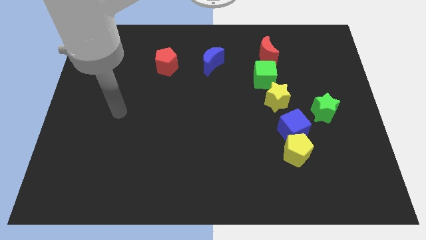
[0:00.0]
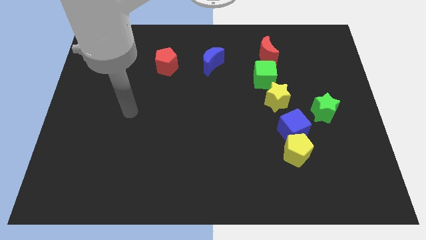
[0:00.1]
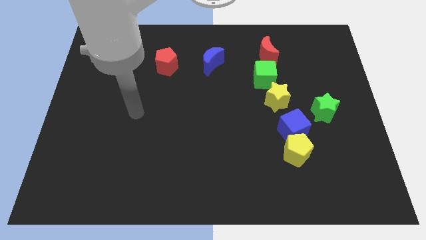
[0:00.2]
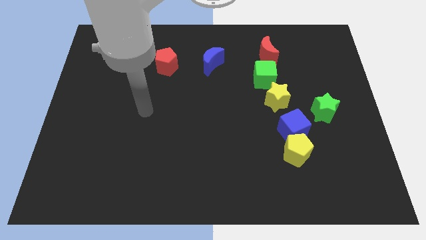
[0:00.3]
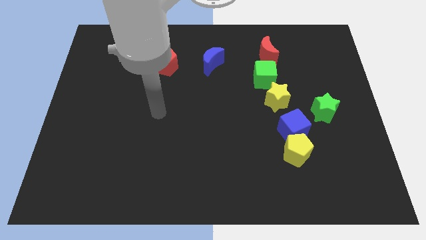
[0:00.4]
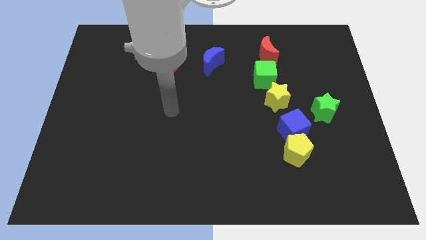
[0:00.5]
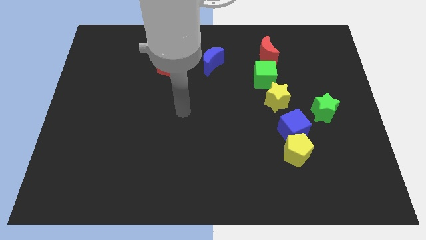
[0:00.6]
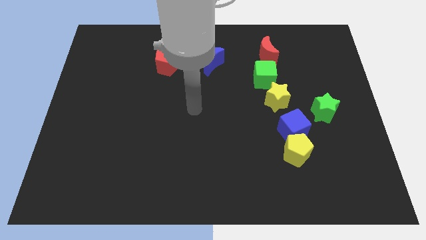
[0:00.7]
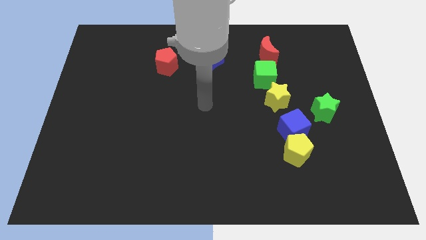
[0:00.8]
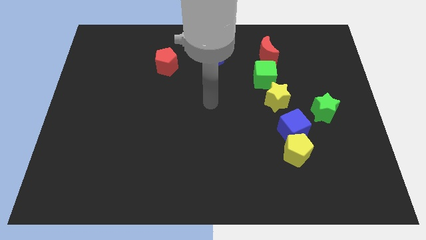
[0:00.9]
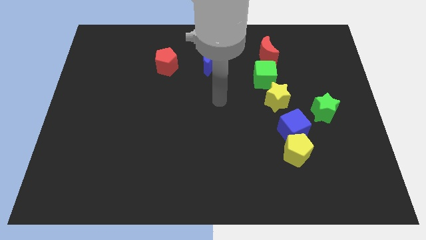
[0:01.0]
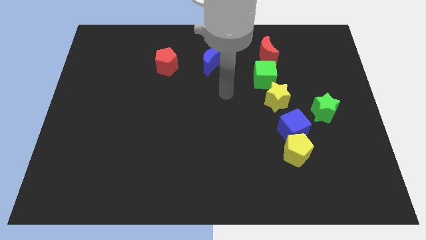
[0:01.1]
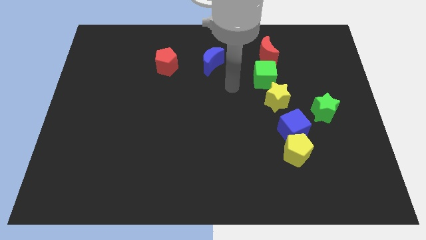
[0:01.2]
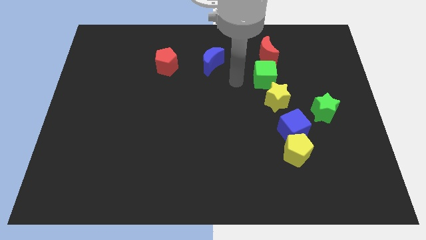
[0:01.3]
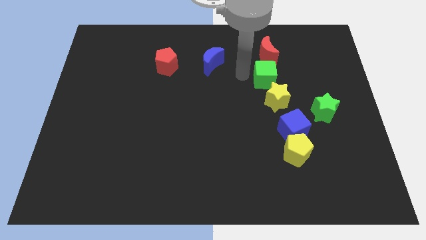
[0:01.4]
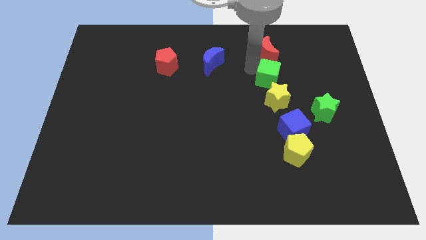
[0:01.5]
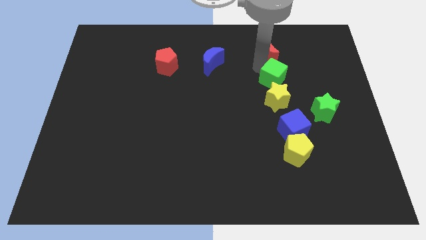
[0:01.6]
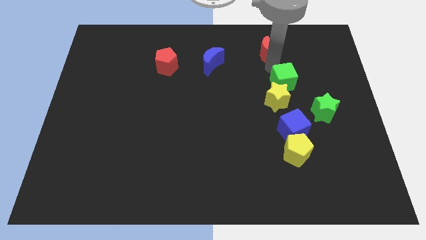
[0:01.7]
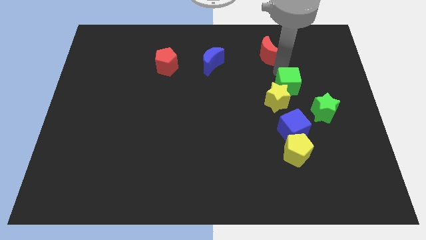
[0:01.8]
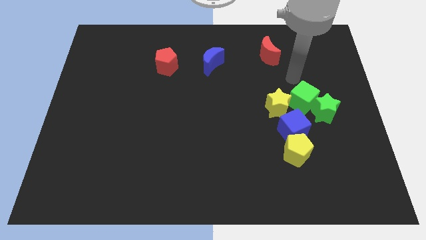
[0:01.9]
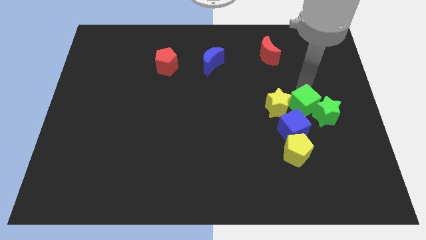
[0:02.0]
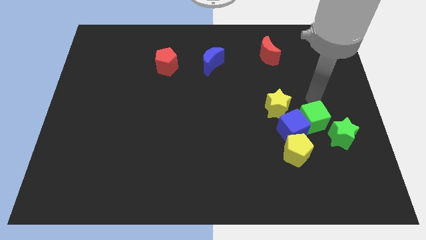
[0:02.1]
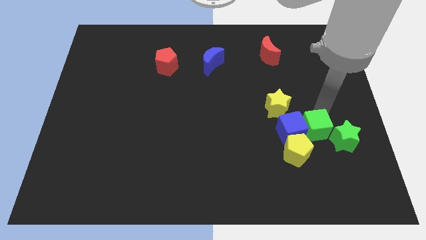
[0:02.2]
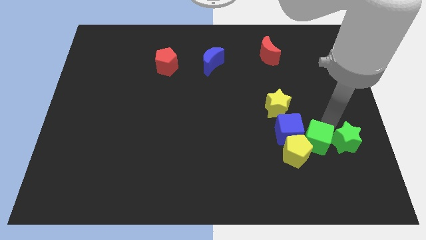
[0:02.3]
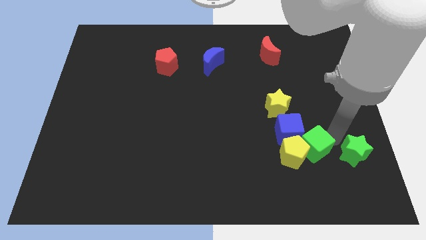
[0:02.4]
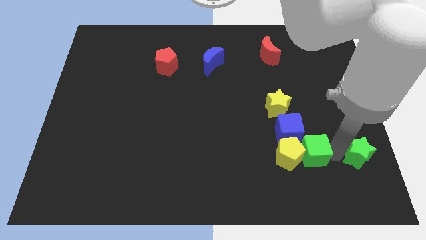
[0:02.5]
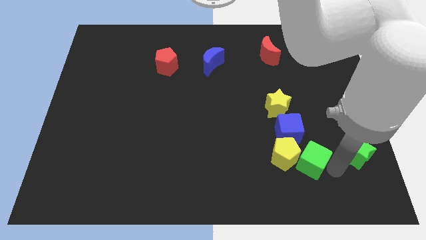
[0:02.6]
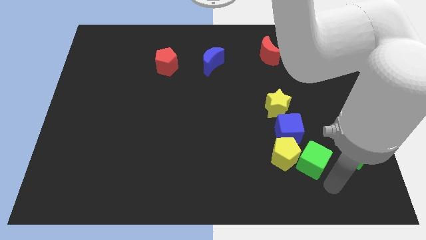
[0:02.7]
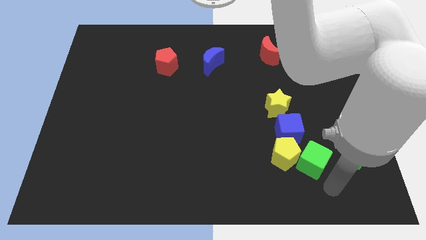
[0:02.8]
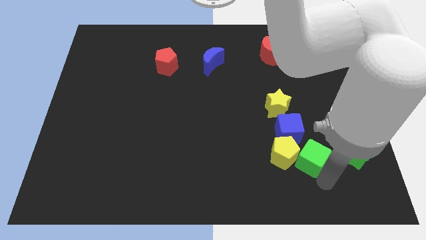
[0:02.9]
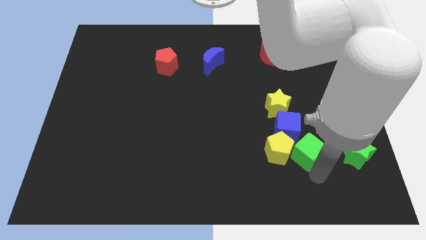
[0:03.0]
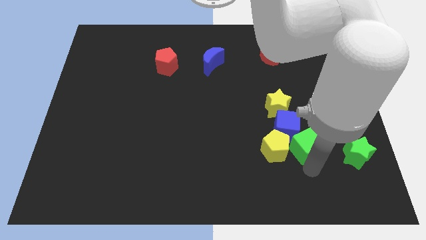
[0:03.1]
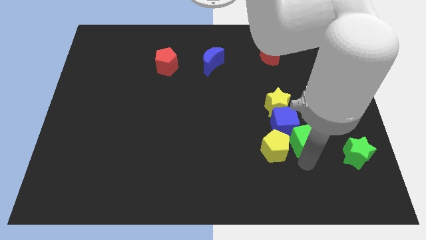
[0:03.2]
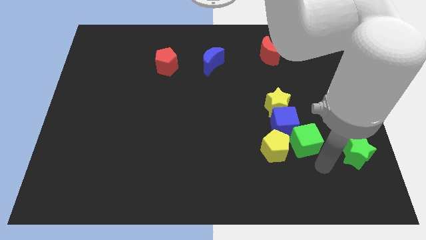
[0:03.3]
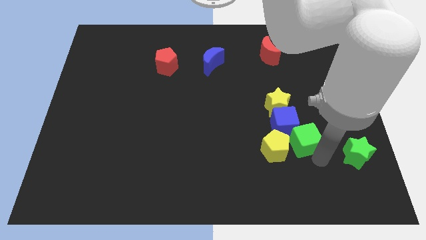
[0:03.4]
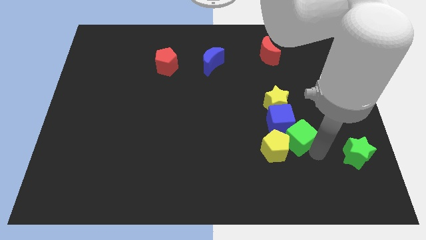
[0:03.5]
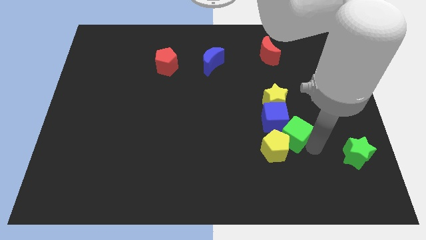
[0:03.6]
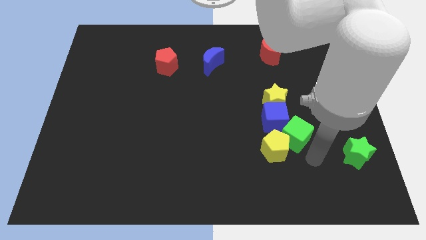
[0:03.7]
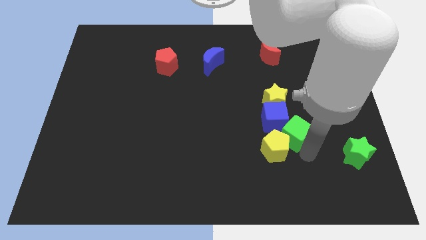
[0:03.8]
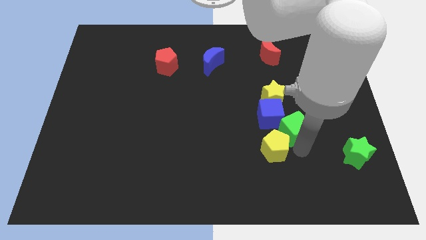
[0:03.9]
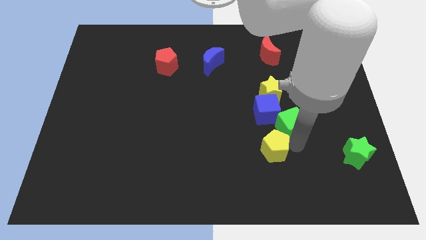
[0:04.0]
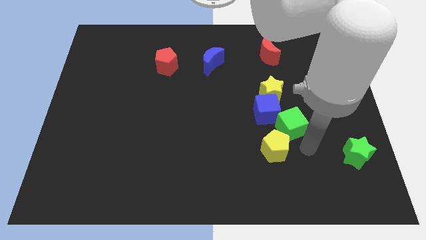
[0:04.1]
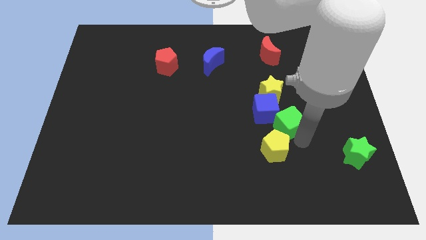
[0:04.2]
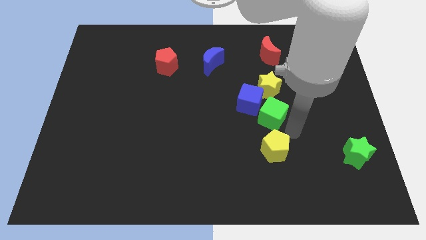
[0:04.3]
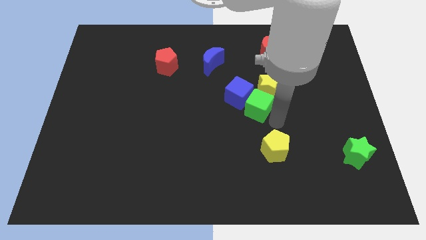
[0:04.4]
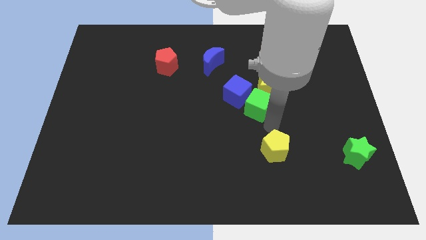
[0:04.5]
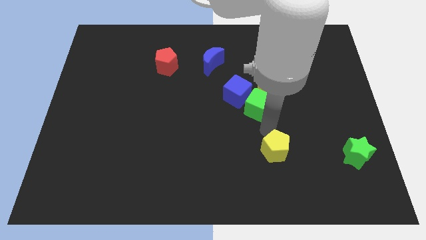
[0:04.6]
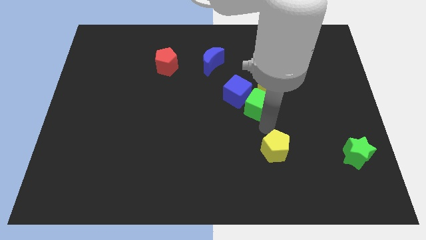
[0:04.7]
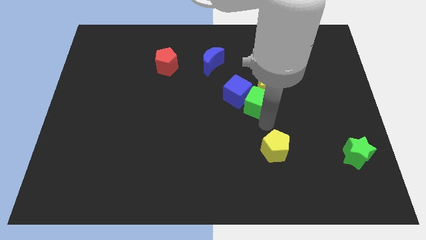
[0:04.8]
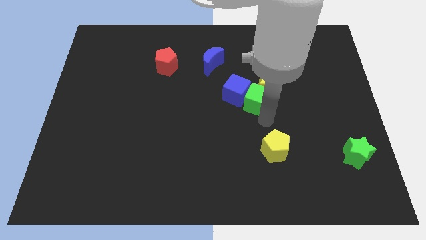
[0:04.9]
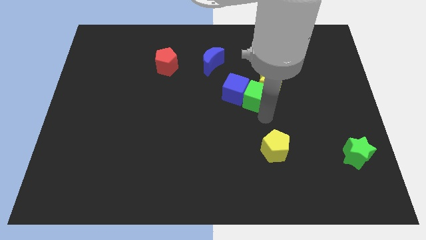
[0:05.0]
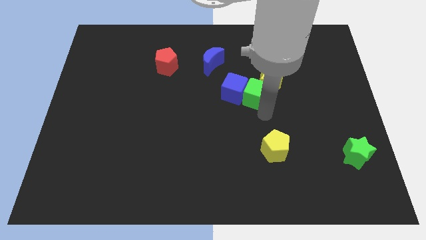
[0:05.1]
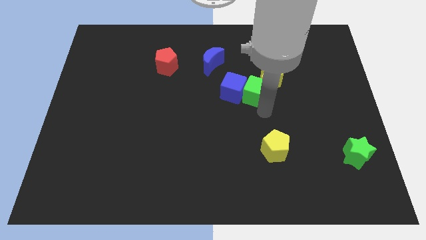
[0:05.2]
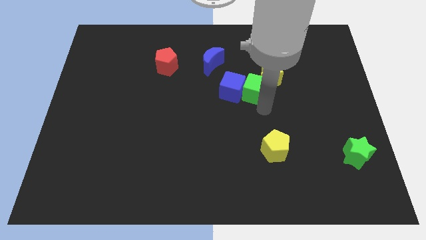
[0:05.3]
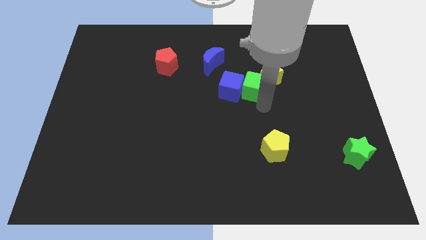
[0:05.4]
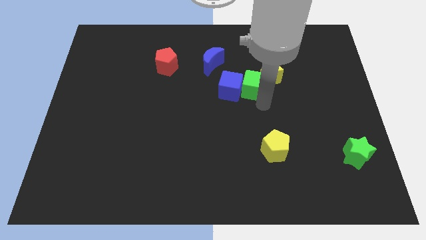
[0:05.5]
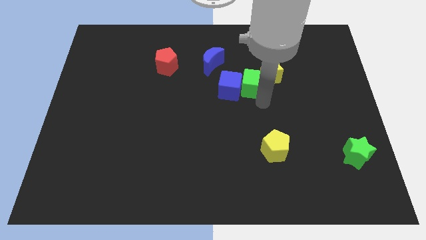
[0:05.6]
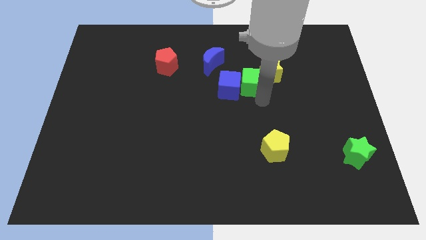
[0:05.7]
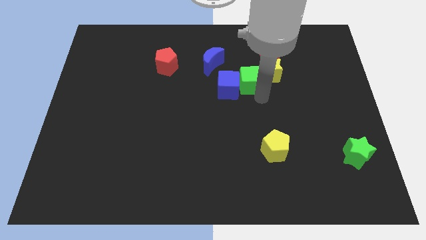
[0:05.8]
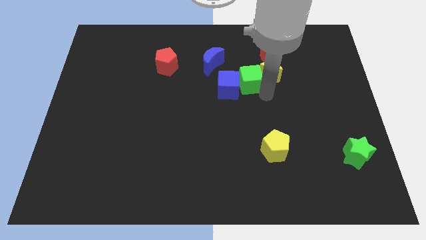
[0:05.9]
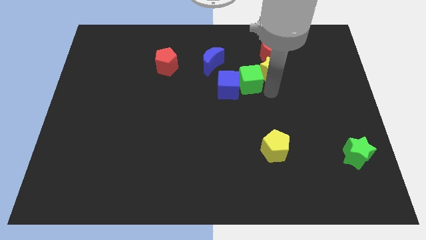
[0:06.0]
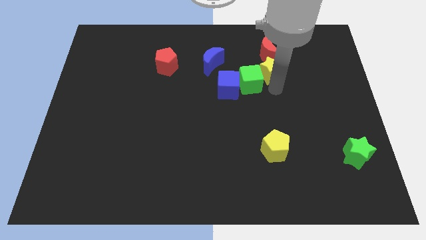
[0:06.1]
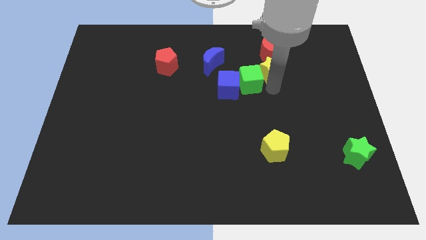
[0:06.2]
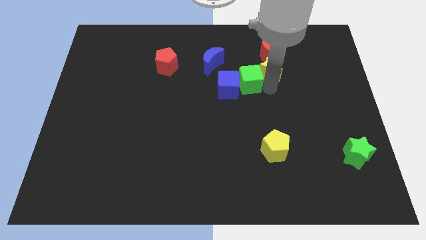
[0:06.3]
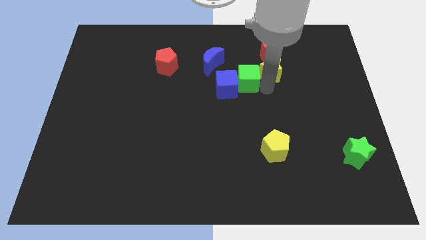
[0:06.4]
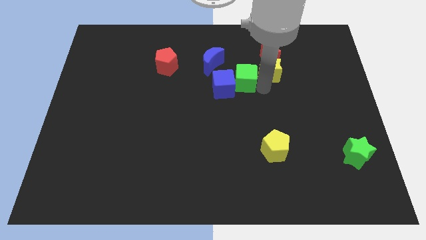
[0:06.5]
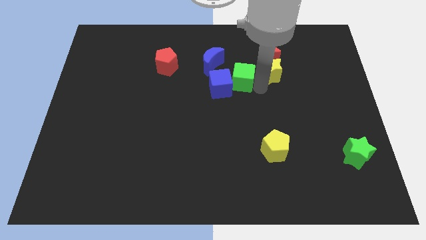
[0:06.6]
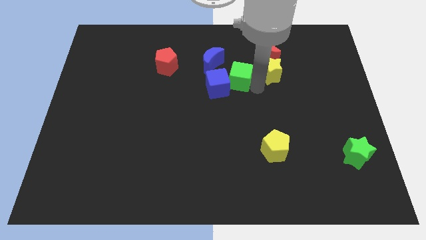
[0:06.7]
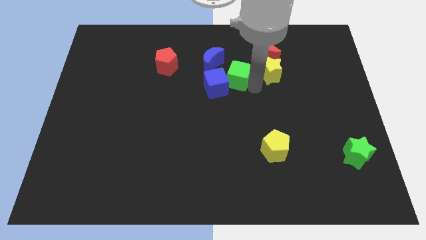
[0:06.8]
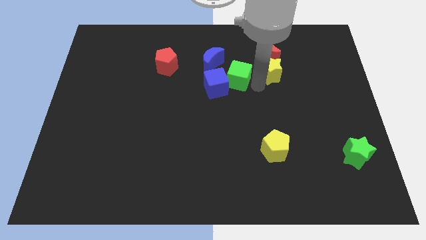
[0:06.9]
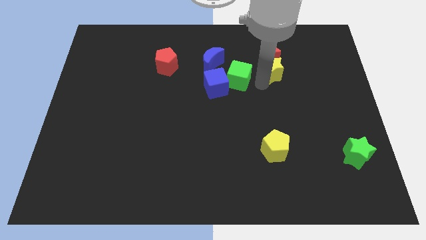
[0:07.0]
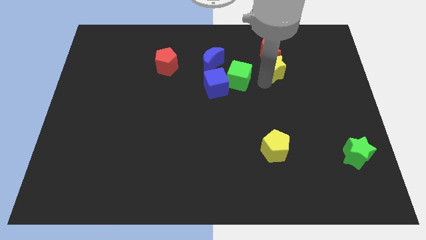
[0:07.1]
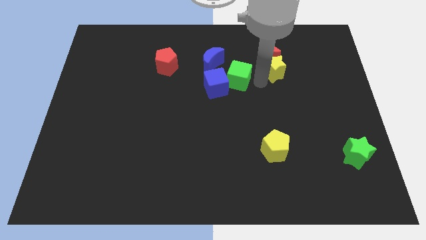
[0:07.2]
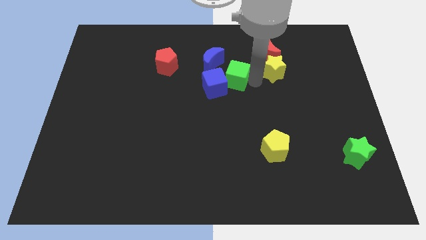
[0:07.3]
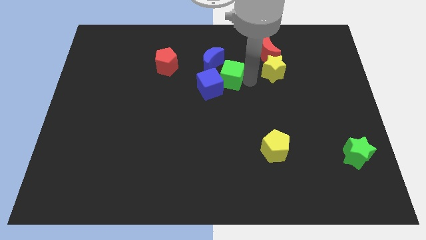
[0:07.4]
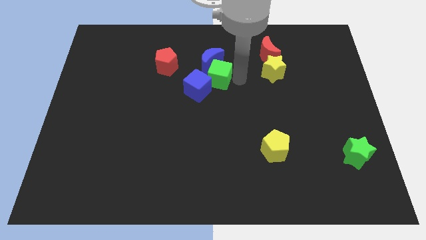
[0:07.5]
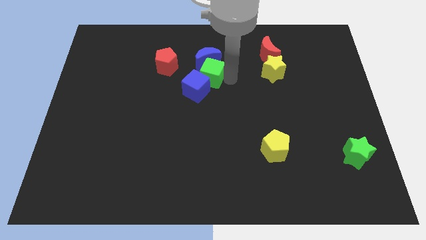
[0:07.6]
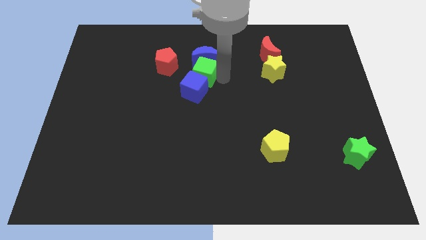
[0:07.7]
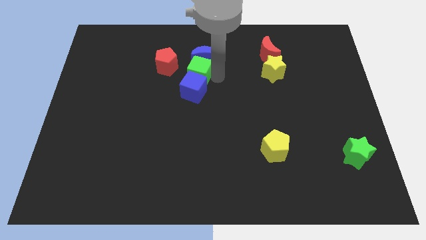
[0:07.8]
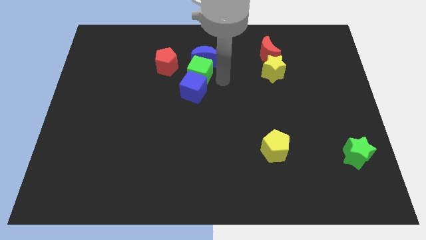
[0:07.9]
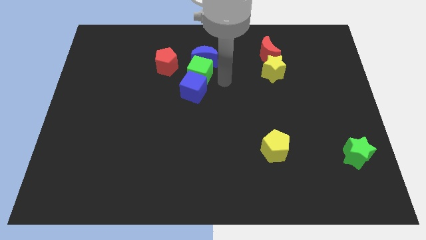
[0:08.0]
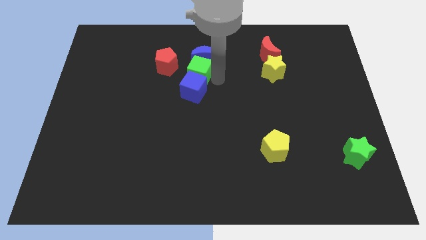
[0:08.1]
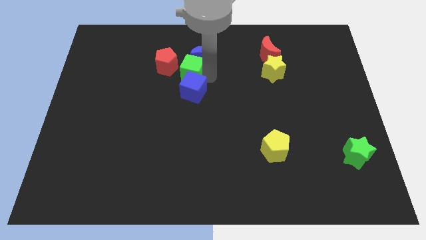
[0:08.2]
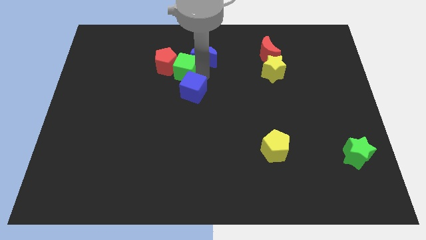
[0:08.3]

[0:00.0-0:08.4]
slide the green cube towards the red pentagon
